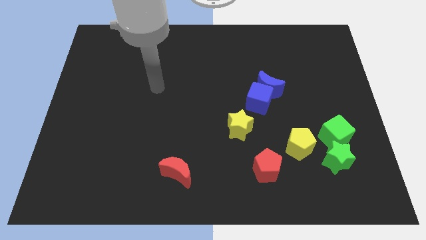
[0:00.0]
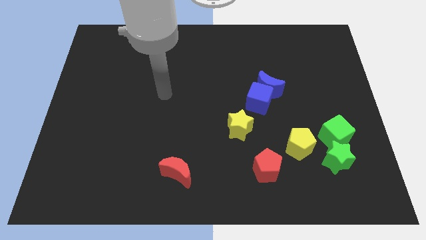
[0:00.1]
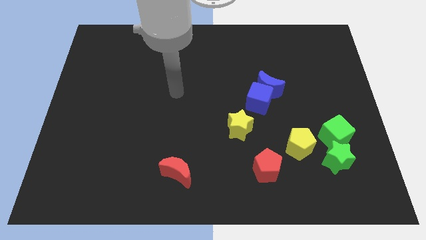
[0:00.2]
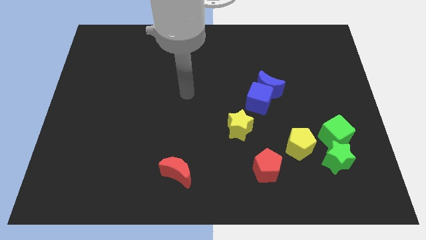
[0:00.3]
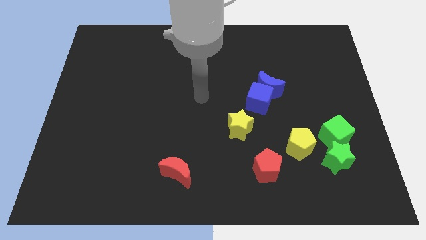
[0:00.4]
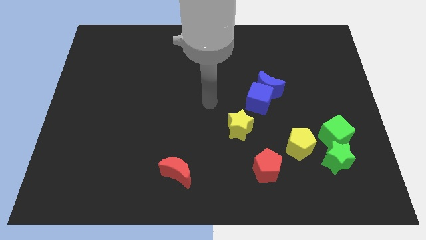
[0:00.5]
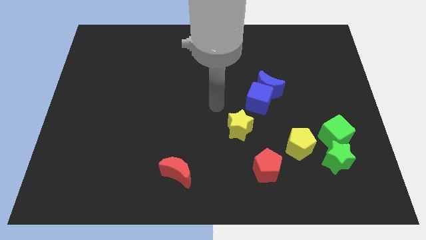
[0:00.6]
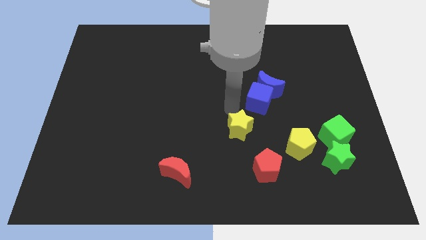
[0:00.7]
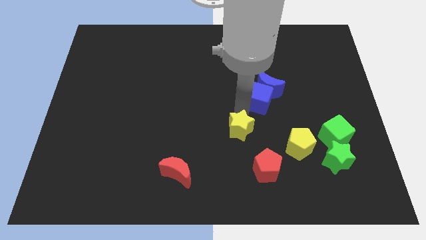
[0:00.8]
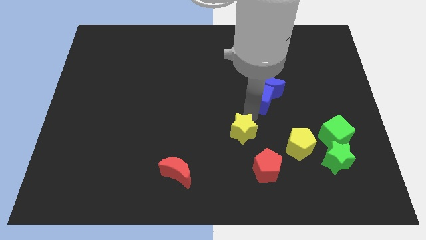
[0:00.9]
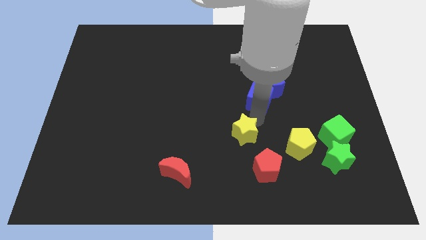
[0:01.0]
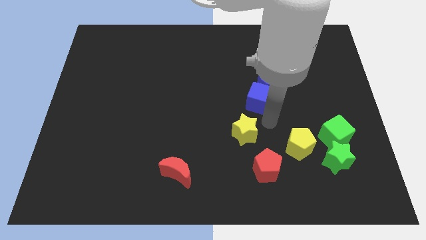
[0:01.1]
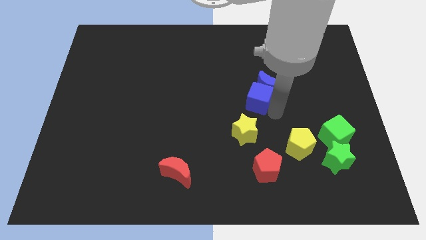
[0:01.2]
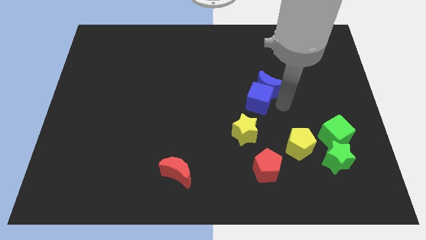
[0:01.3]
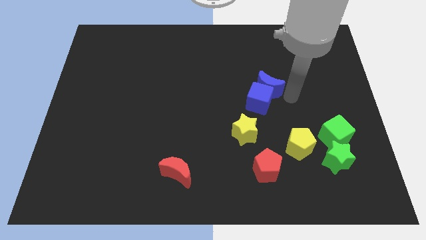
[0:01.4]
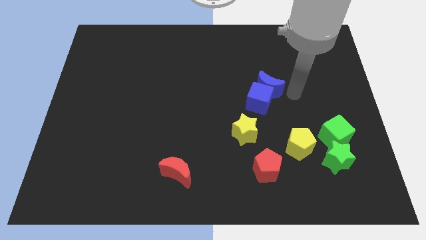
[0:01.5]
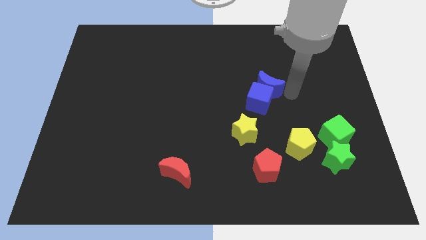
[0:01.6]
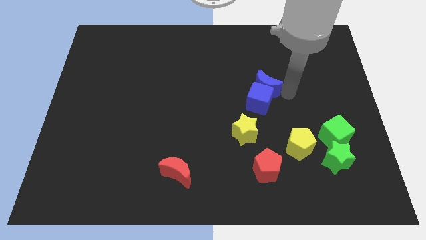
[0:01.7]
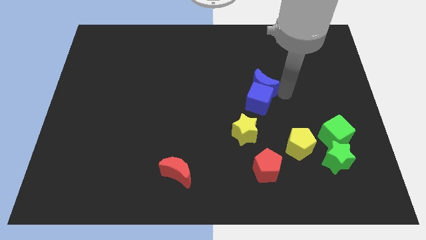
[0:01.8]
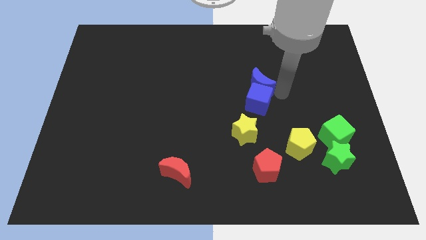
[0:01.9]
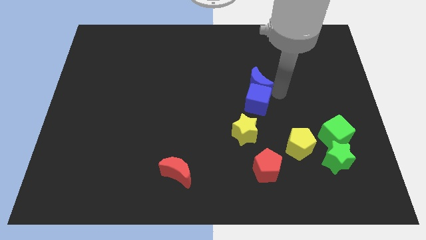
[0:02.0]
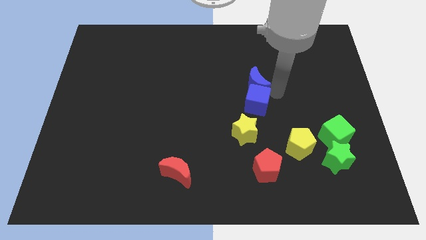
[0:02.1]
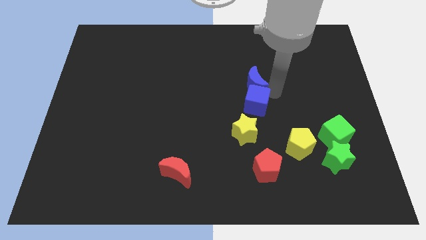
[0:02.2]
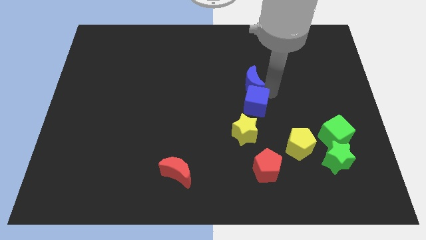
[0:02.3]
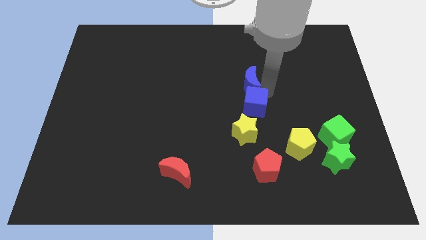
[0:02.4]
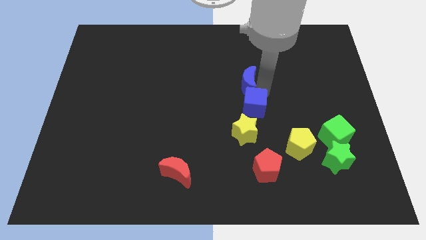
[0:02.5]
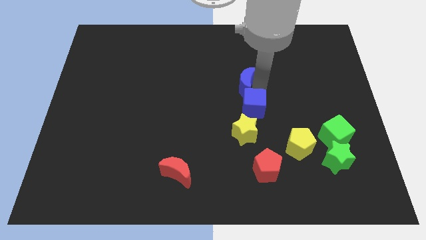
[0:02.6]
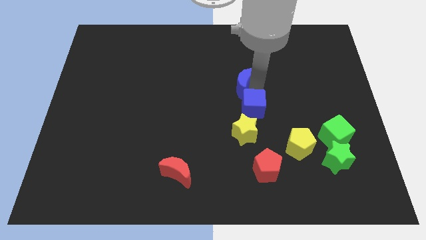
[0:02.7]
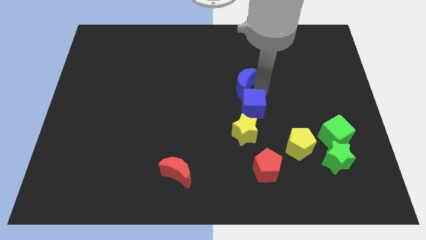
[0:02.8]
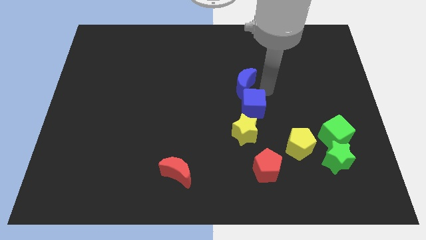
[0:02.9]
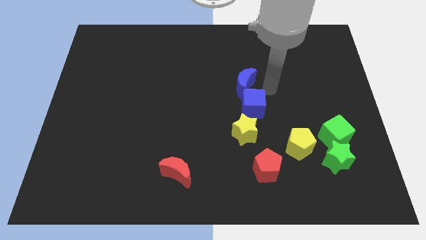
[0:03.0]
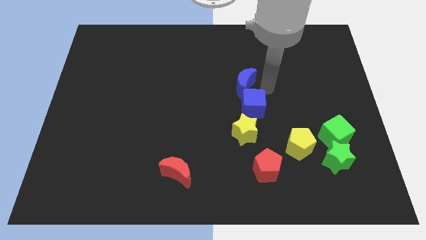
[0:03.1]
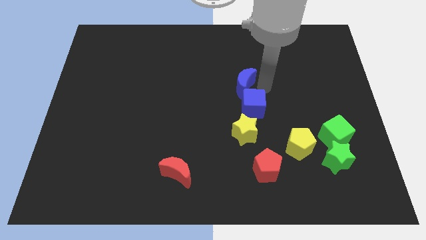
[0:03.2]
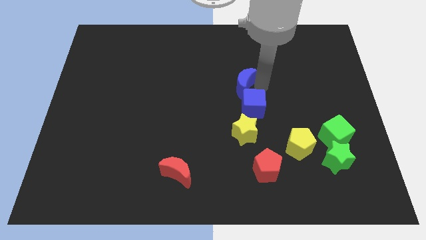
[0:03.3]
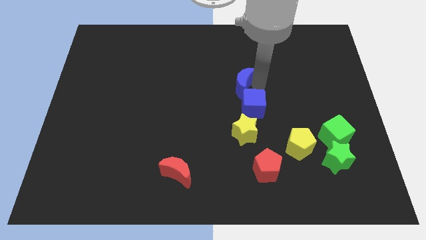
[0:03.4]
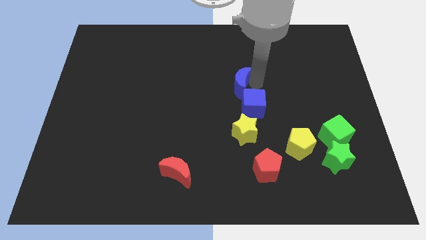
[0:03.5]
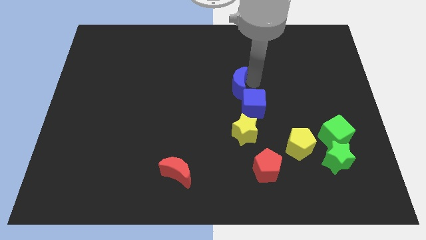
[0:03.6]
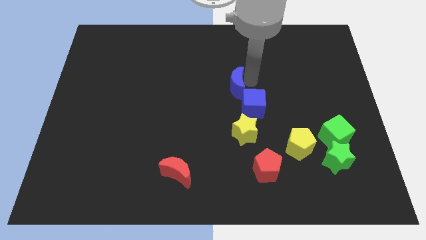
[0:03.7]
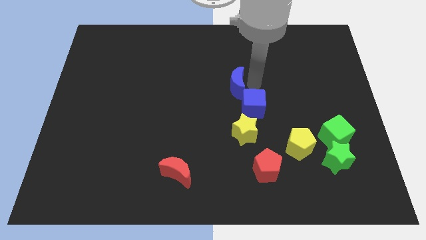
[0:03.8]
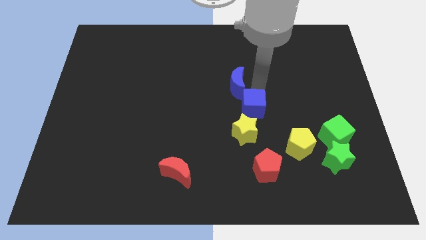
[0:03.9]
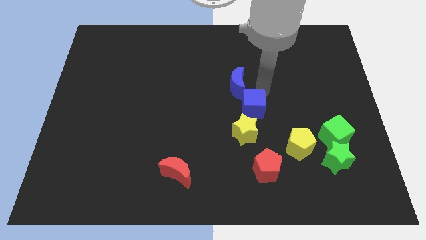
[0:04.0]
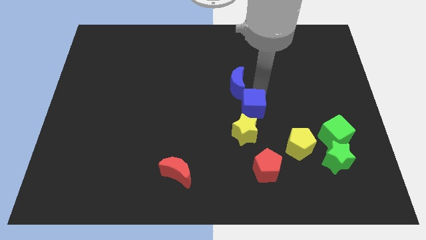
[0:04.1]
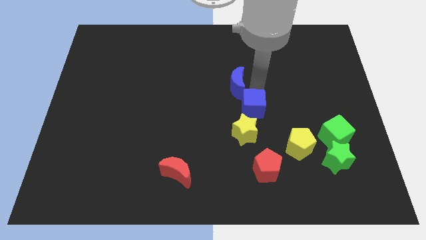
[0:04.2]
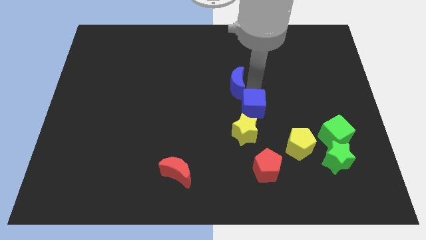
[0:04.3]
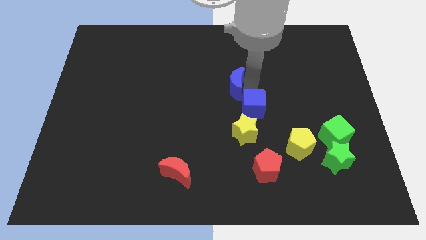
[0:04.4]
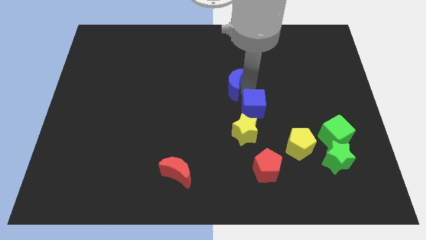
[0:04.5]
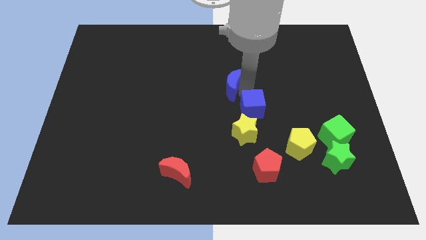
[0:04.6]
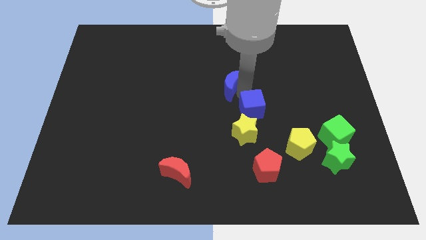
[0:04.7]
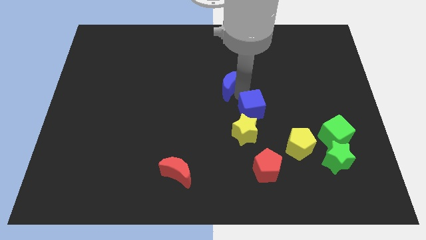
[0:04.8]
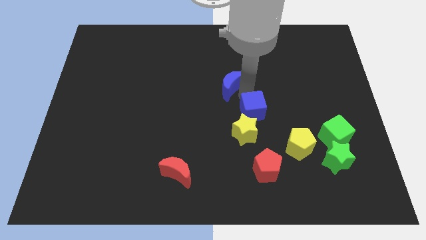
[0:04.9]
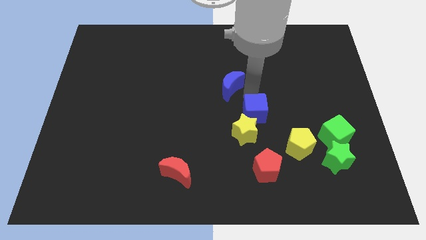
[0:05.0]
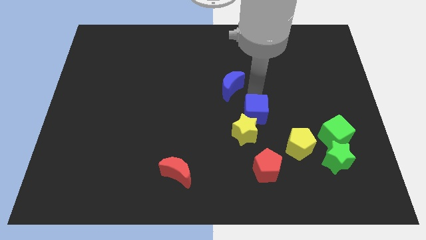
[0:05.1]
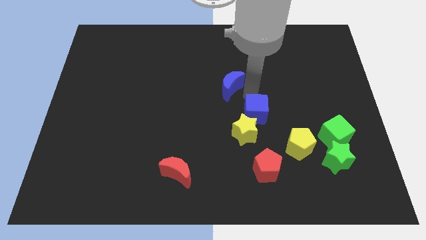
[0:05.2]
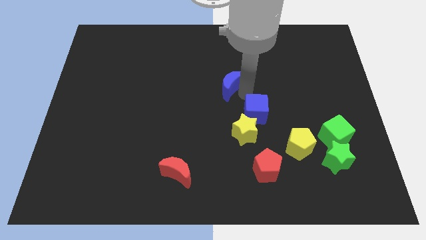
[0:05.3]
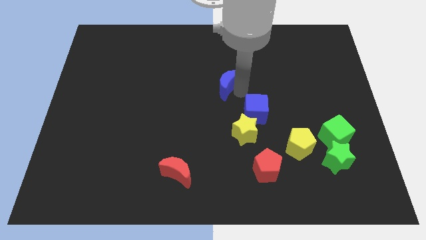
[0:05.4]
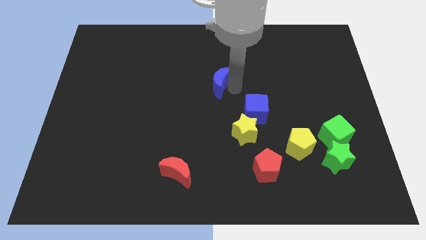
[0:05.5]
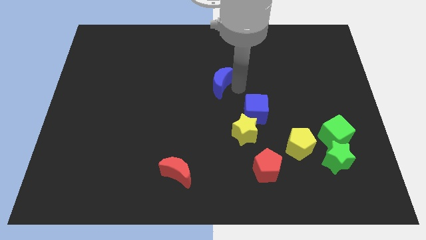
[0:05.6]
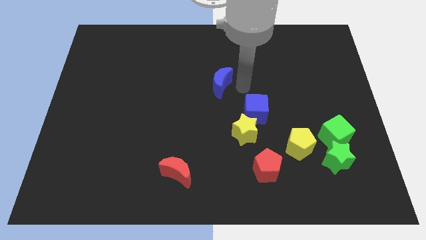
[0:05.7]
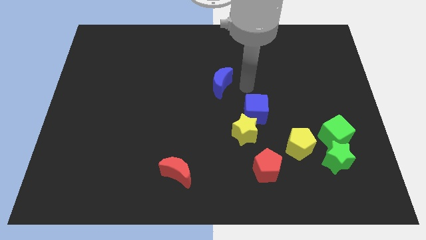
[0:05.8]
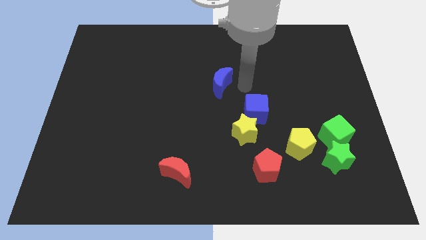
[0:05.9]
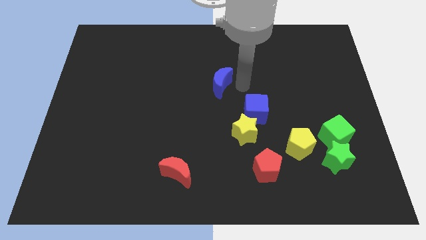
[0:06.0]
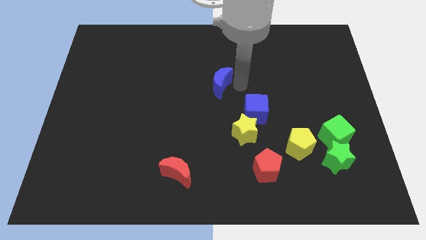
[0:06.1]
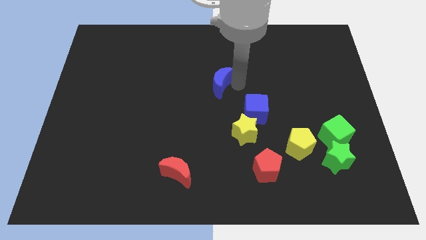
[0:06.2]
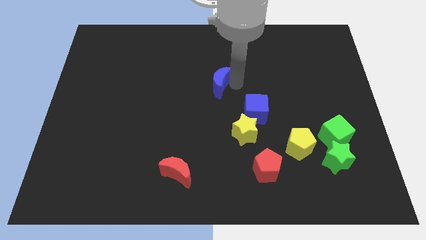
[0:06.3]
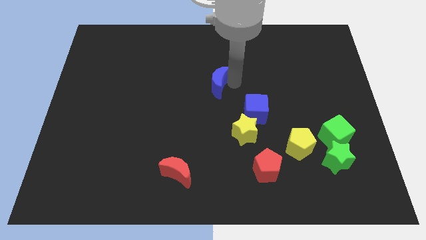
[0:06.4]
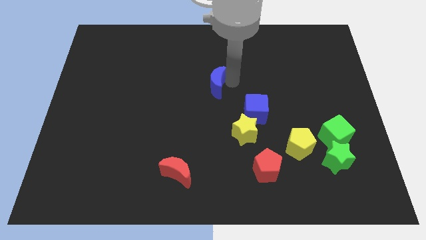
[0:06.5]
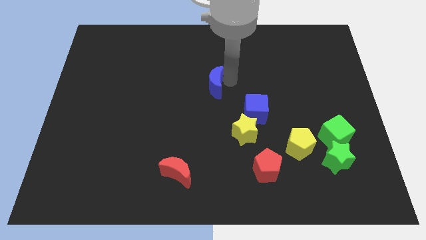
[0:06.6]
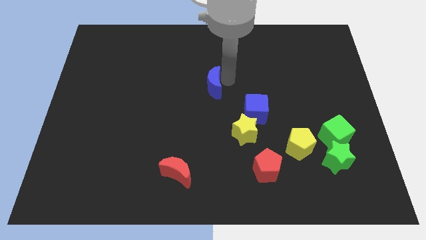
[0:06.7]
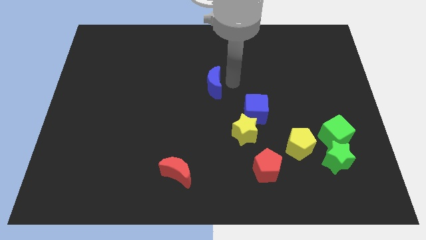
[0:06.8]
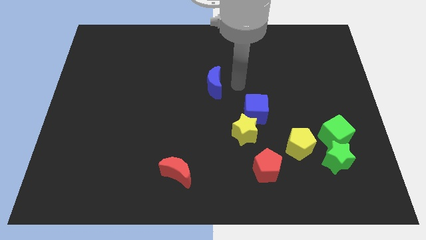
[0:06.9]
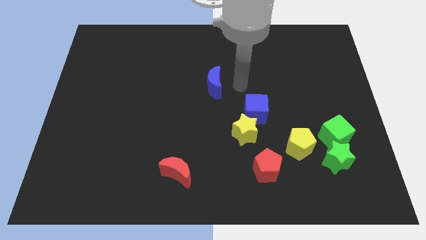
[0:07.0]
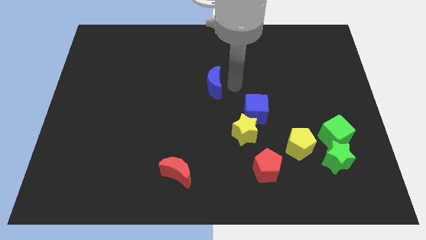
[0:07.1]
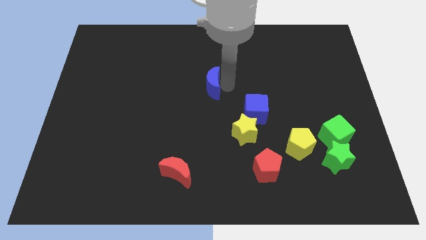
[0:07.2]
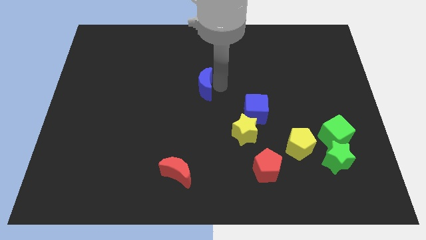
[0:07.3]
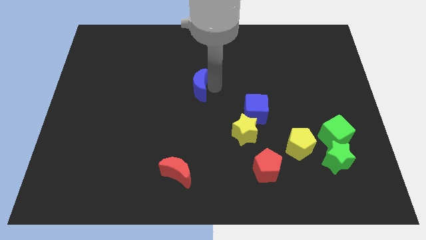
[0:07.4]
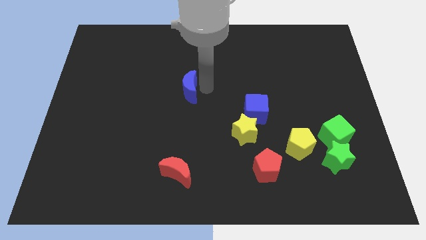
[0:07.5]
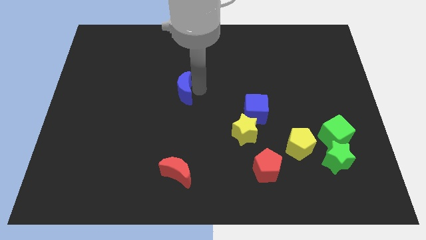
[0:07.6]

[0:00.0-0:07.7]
push the blue moon left

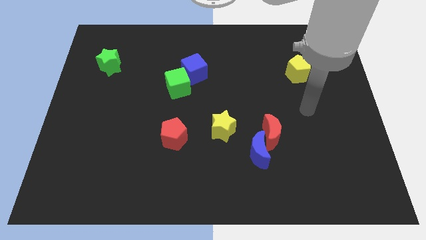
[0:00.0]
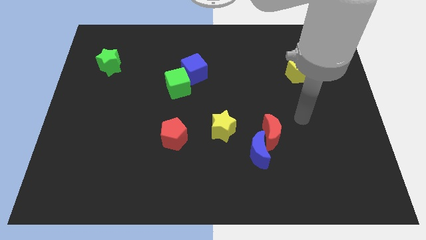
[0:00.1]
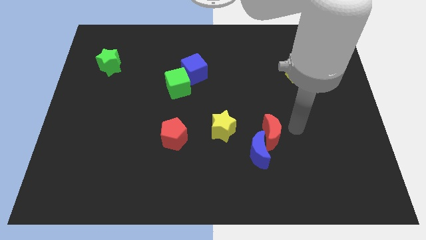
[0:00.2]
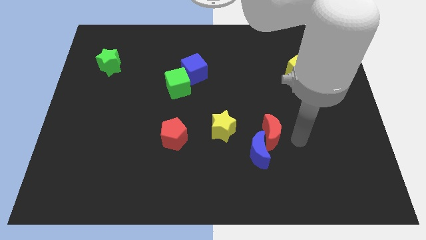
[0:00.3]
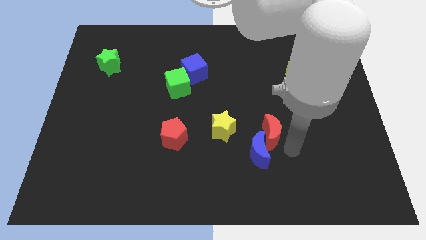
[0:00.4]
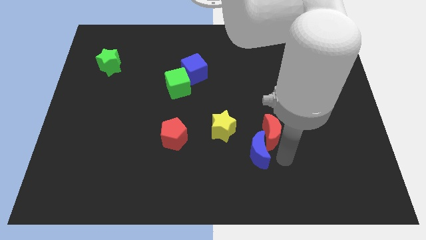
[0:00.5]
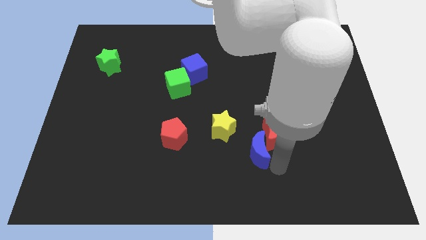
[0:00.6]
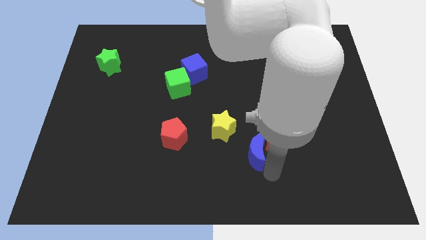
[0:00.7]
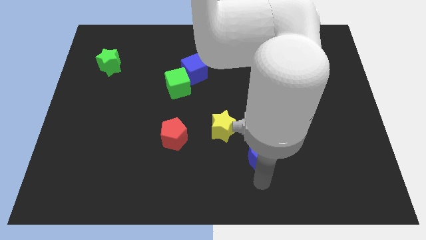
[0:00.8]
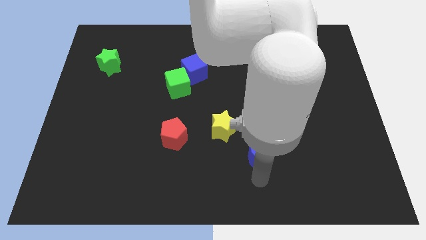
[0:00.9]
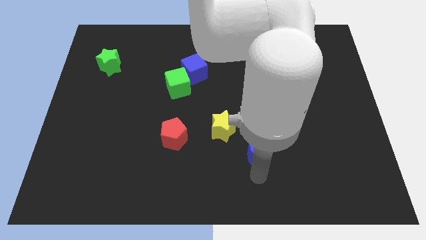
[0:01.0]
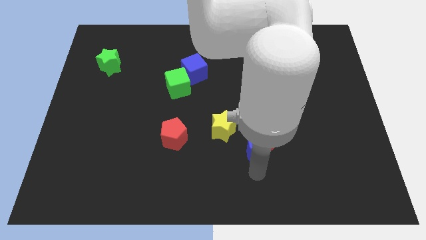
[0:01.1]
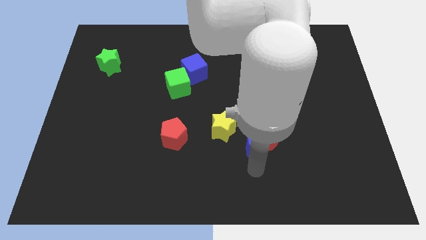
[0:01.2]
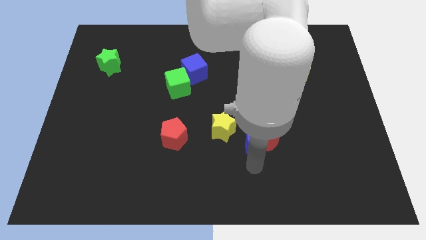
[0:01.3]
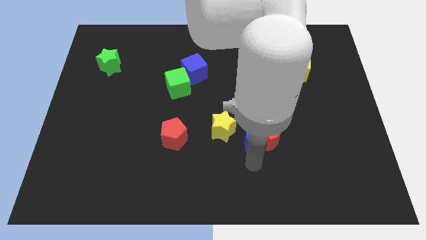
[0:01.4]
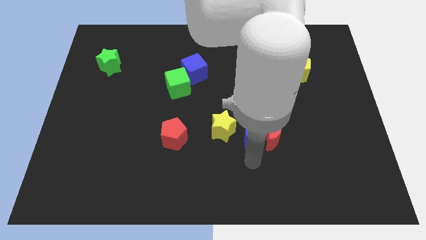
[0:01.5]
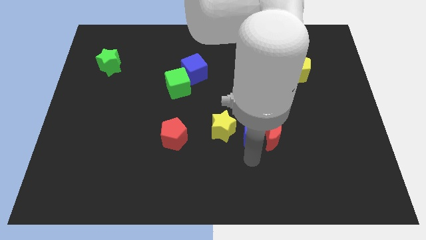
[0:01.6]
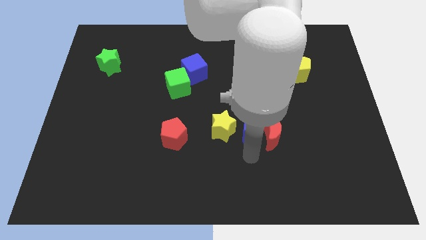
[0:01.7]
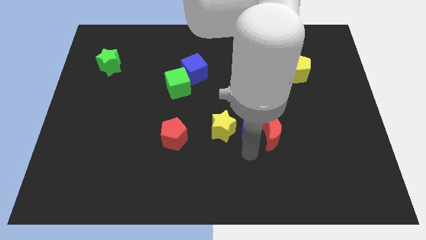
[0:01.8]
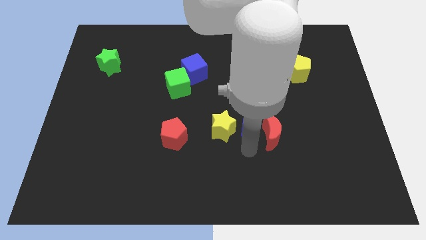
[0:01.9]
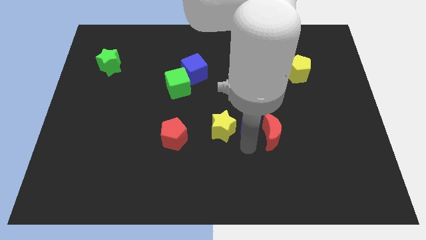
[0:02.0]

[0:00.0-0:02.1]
push the blue moon a little up
